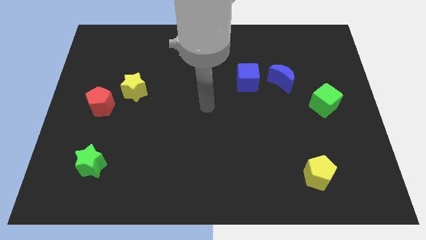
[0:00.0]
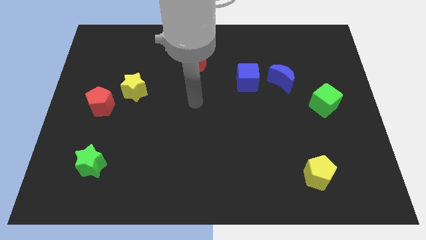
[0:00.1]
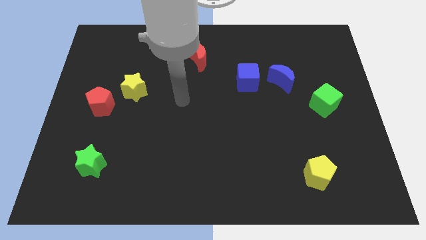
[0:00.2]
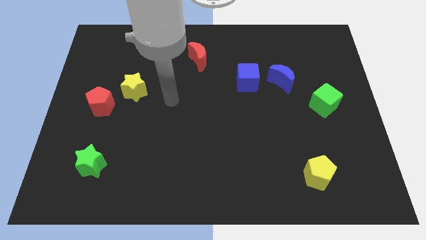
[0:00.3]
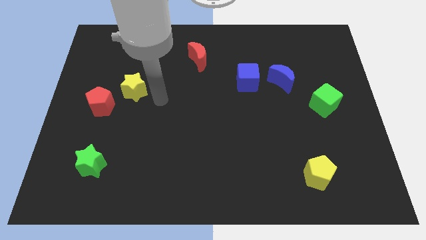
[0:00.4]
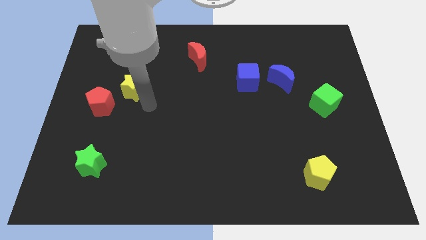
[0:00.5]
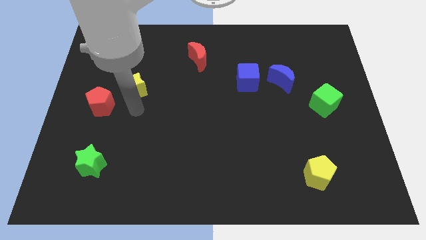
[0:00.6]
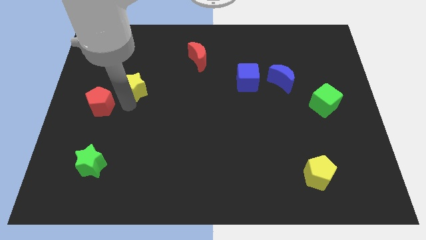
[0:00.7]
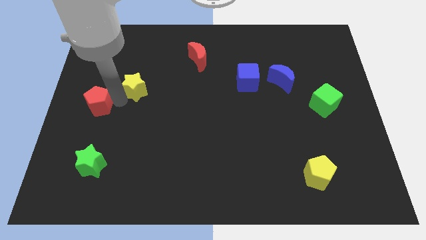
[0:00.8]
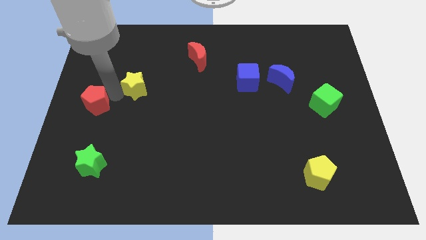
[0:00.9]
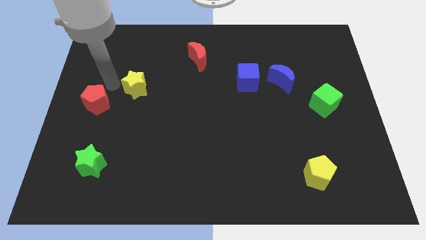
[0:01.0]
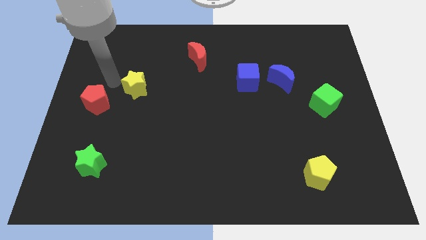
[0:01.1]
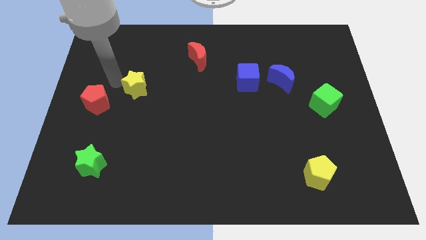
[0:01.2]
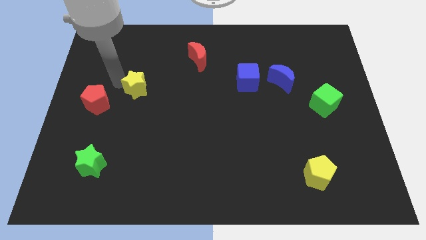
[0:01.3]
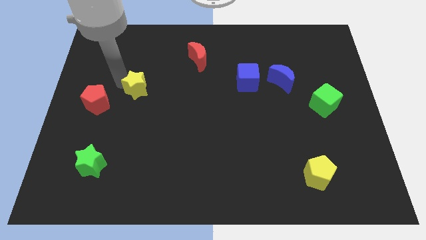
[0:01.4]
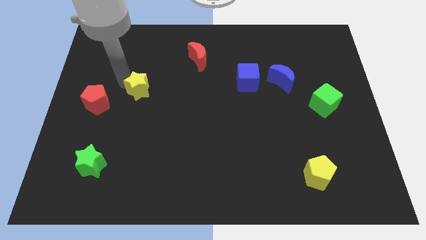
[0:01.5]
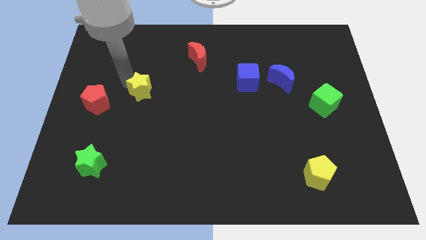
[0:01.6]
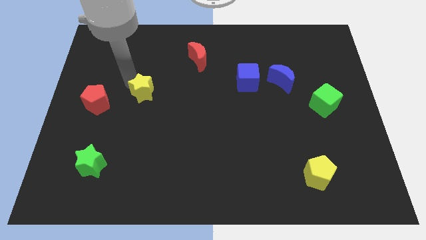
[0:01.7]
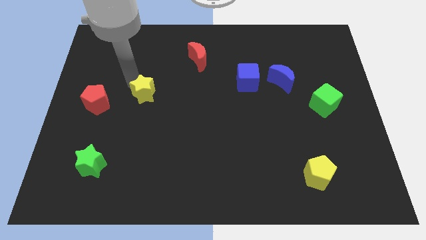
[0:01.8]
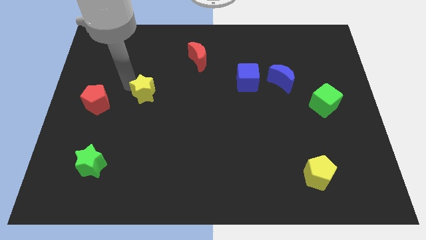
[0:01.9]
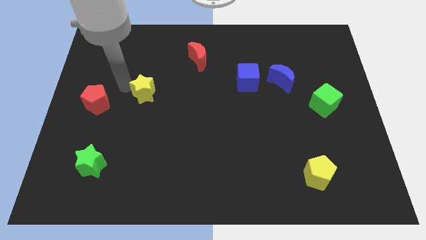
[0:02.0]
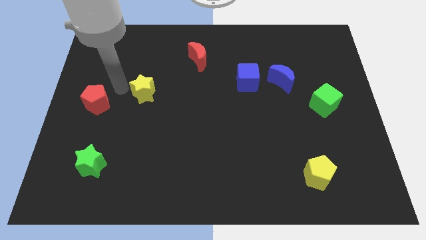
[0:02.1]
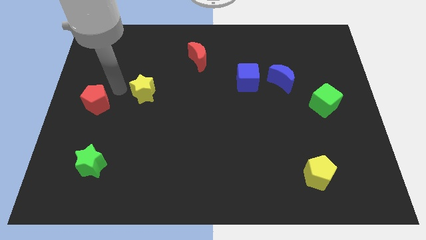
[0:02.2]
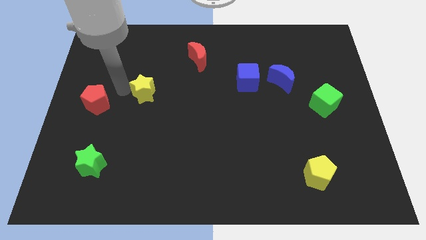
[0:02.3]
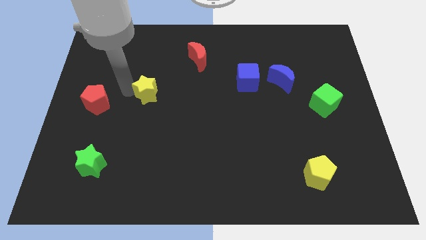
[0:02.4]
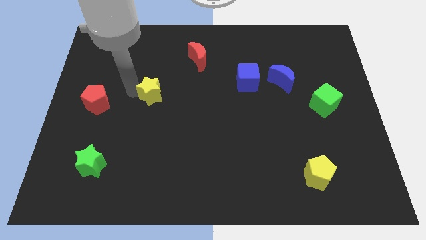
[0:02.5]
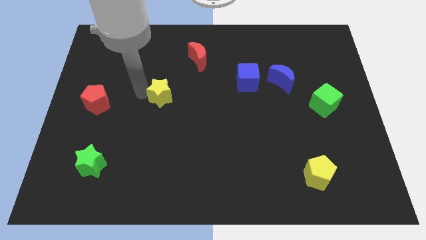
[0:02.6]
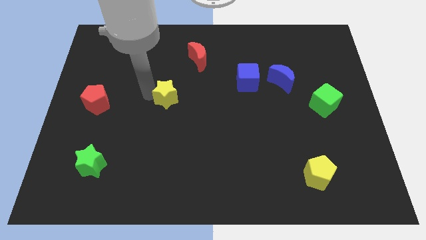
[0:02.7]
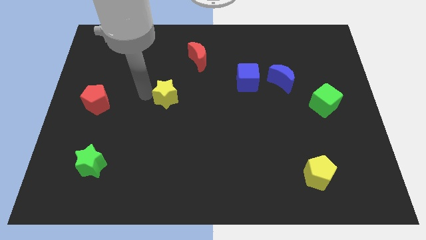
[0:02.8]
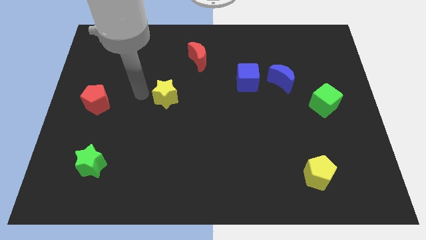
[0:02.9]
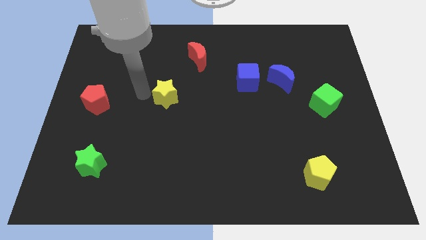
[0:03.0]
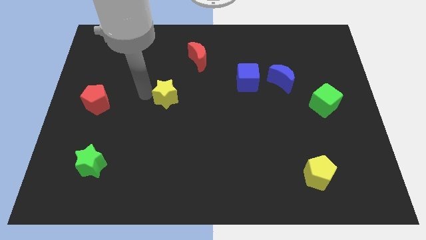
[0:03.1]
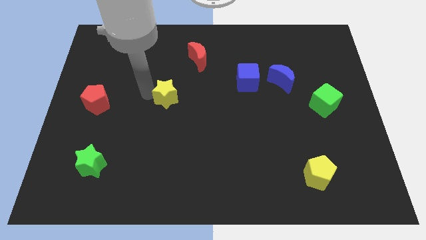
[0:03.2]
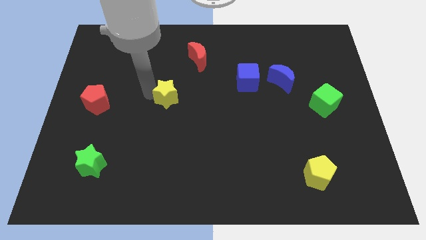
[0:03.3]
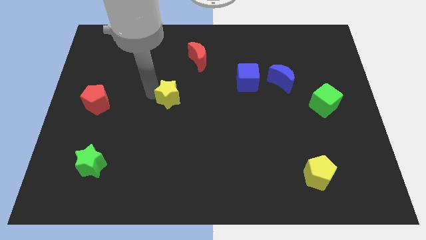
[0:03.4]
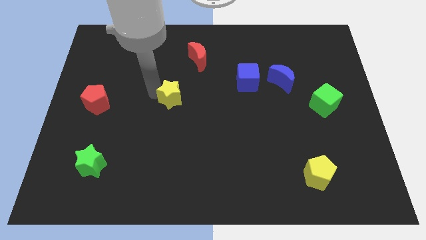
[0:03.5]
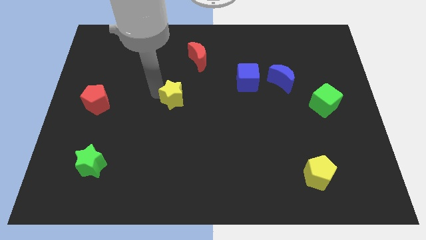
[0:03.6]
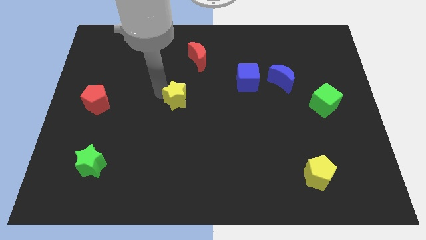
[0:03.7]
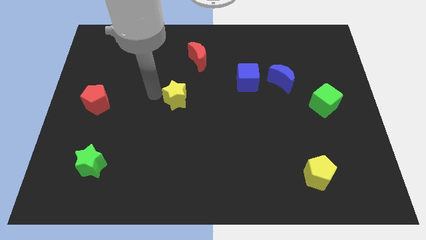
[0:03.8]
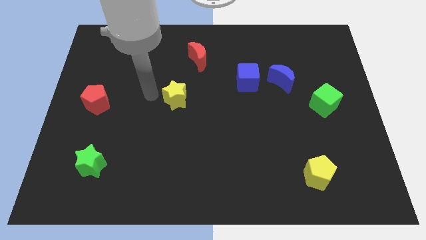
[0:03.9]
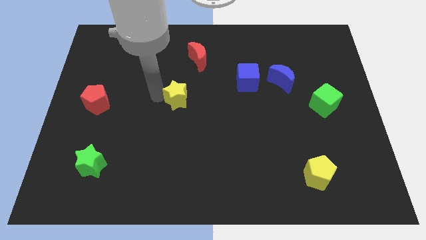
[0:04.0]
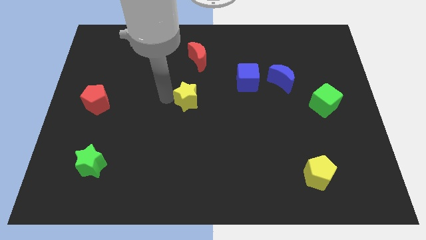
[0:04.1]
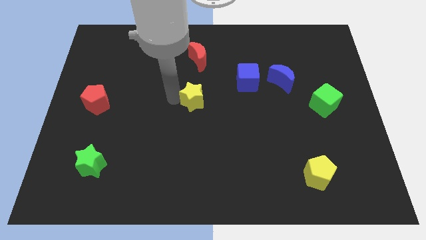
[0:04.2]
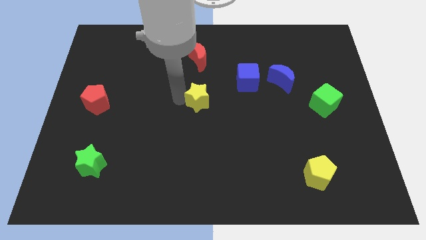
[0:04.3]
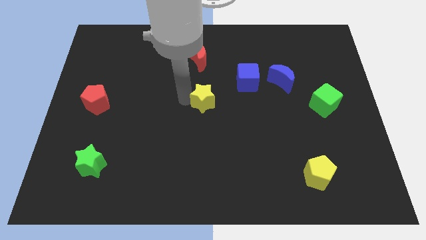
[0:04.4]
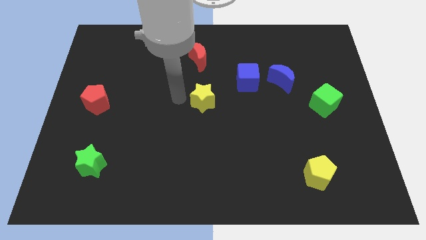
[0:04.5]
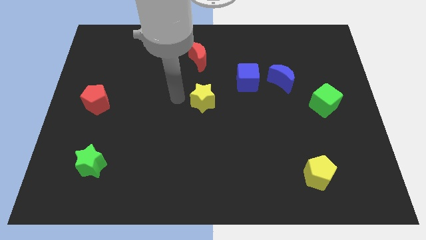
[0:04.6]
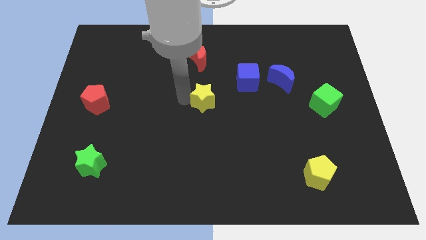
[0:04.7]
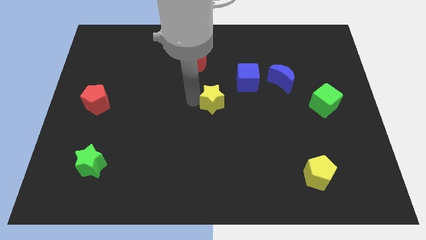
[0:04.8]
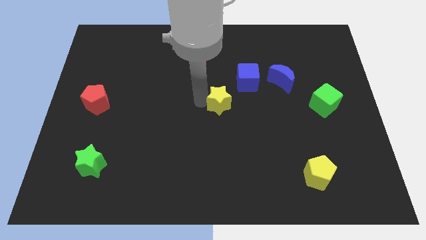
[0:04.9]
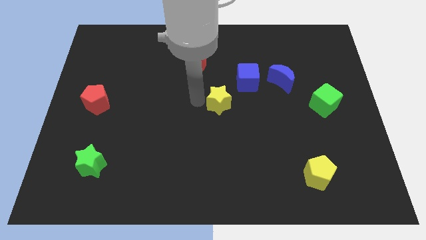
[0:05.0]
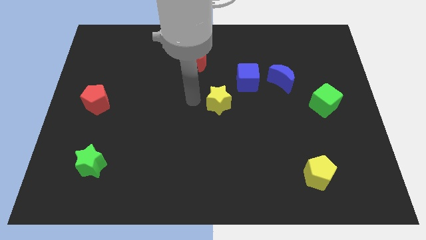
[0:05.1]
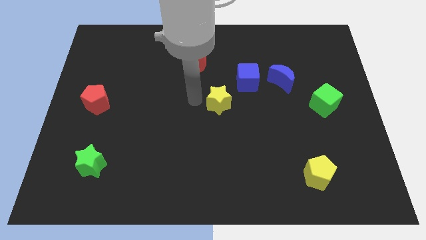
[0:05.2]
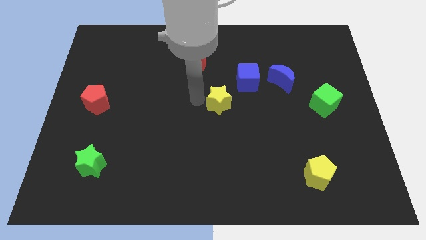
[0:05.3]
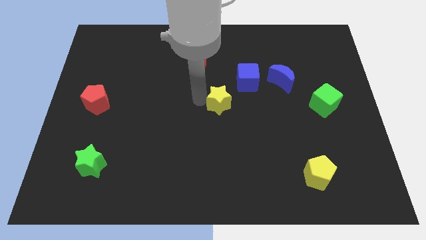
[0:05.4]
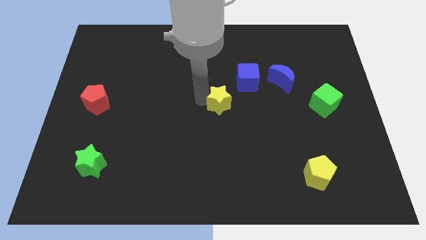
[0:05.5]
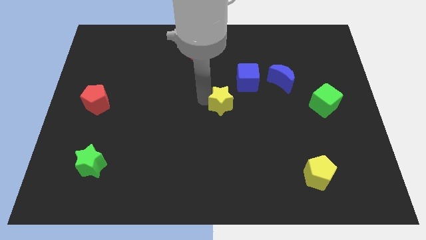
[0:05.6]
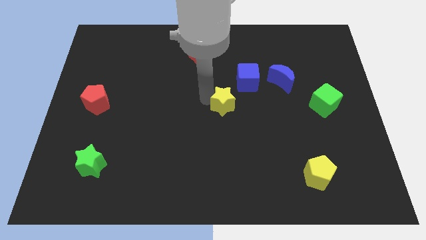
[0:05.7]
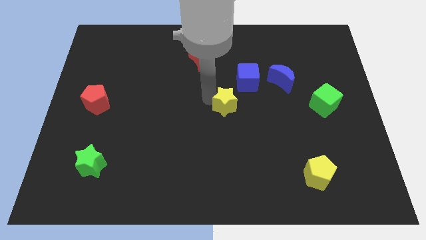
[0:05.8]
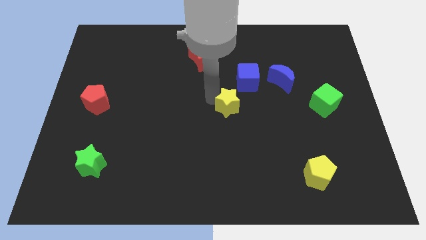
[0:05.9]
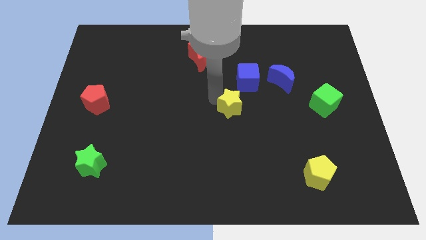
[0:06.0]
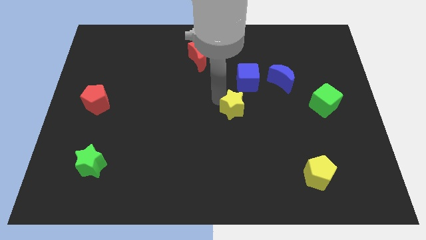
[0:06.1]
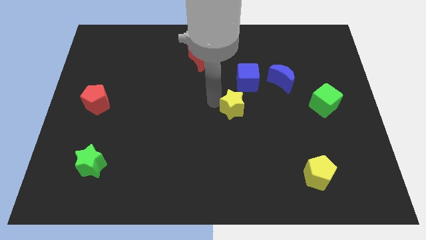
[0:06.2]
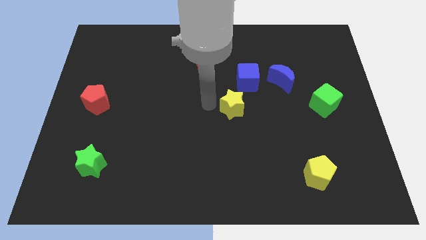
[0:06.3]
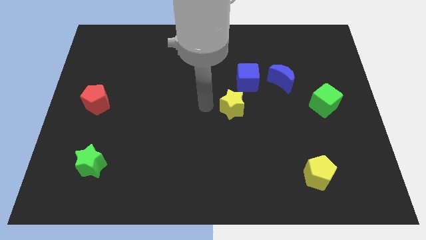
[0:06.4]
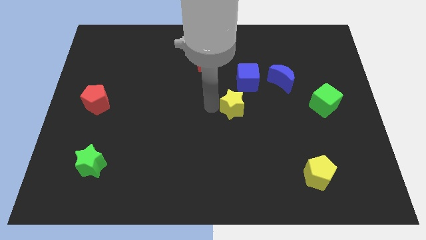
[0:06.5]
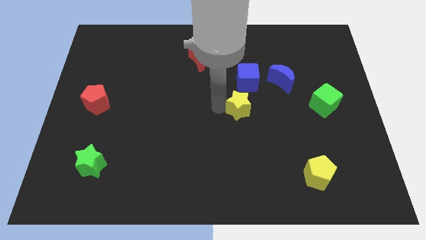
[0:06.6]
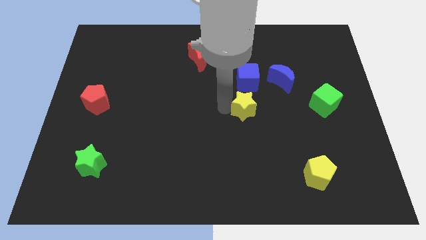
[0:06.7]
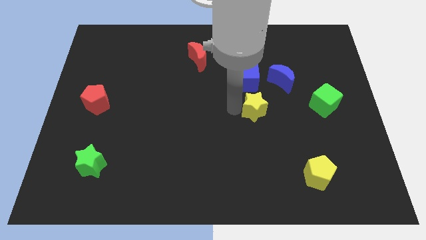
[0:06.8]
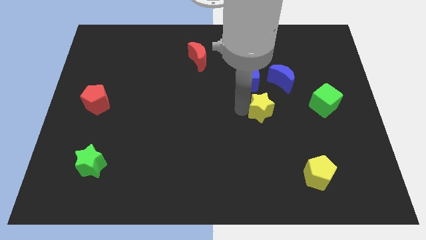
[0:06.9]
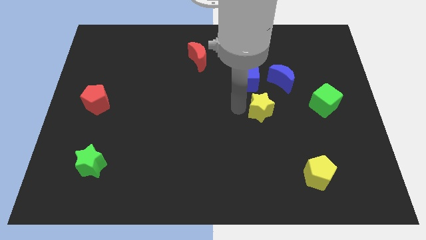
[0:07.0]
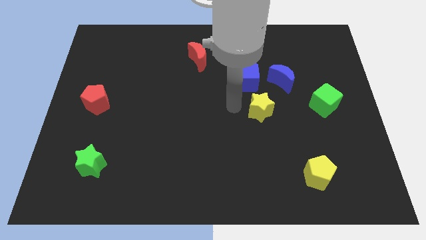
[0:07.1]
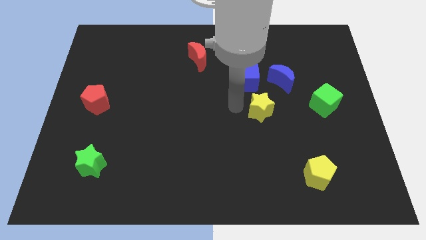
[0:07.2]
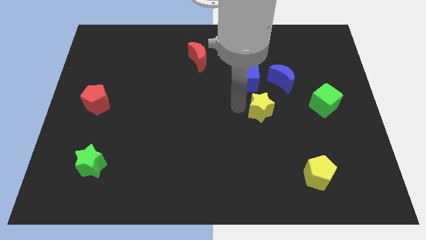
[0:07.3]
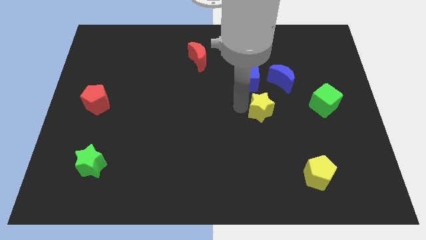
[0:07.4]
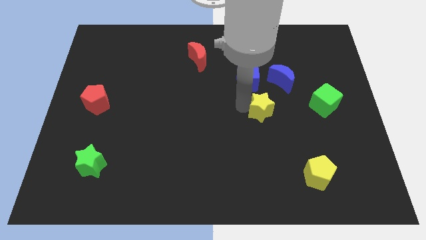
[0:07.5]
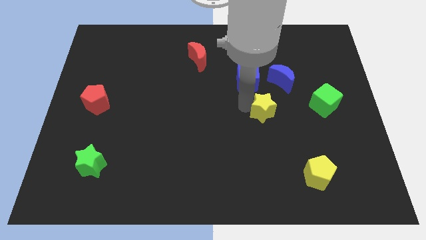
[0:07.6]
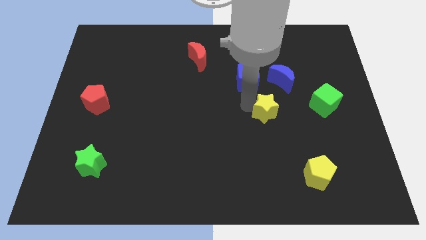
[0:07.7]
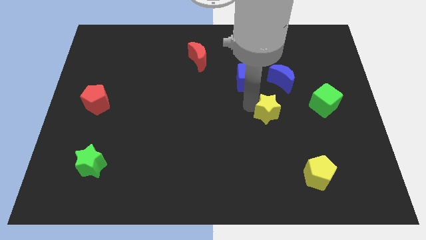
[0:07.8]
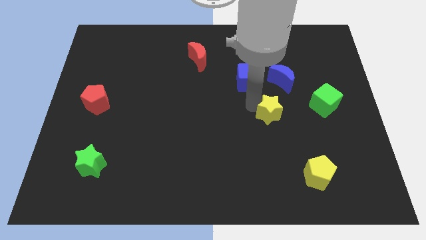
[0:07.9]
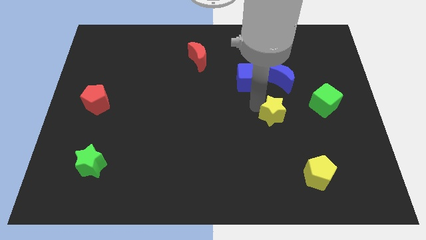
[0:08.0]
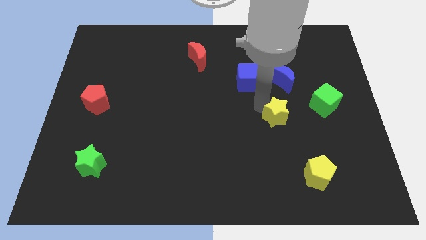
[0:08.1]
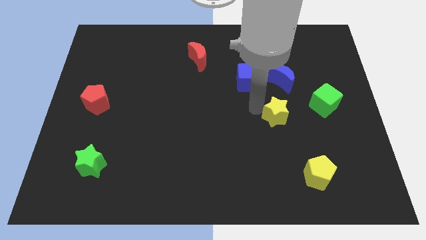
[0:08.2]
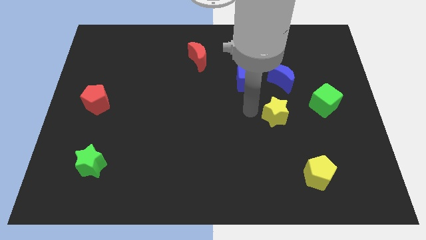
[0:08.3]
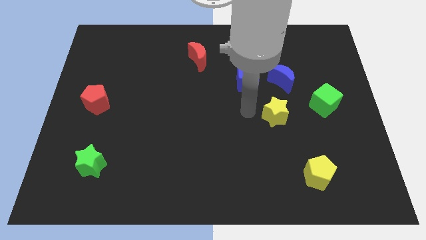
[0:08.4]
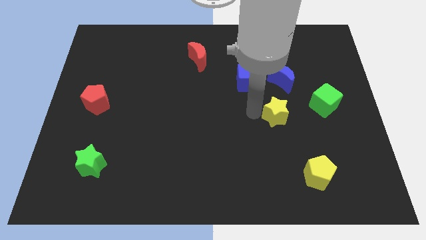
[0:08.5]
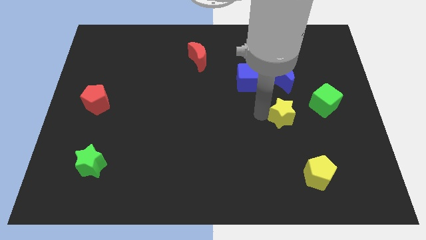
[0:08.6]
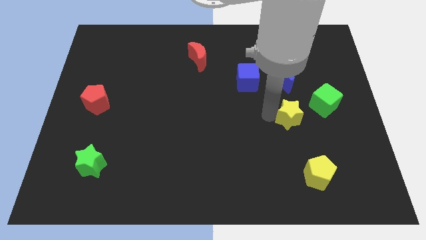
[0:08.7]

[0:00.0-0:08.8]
slide the yellow star to the bottom left of the green cube
